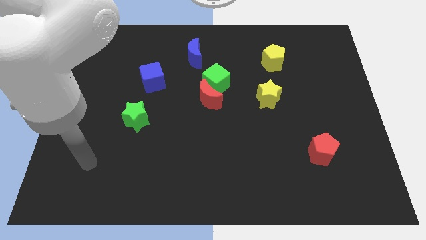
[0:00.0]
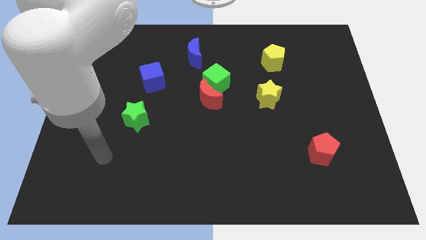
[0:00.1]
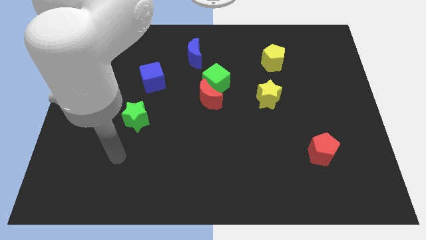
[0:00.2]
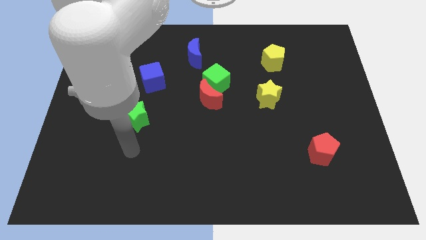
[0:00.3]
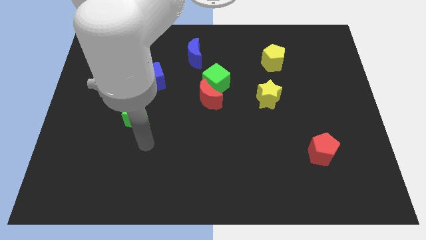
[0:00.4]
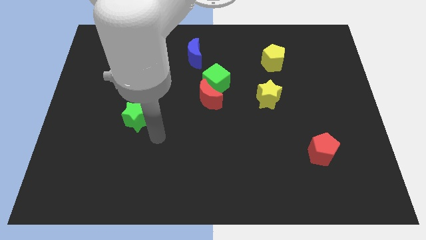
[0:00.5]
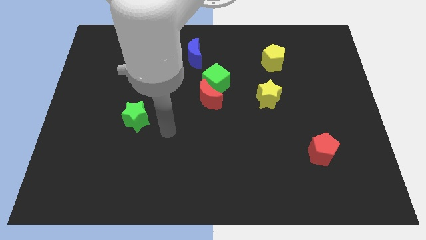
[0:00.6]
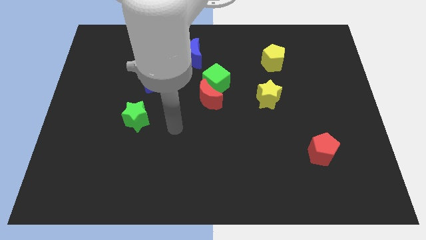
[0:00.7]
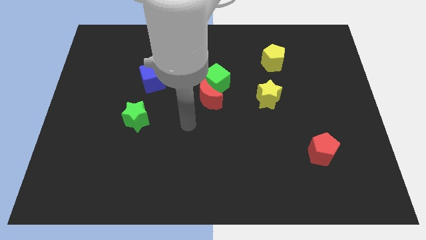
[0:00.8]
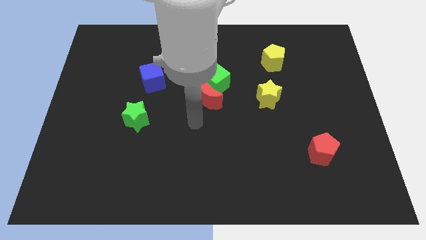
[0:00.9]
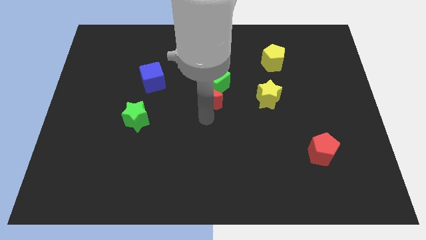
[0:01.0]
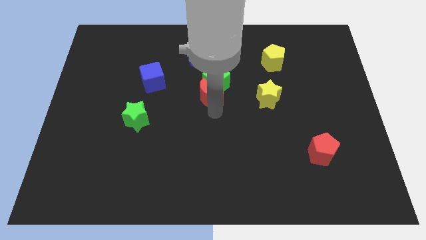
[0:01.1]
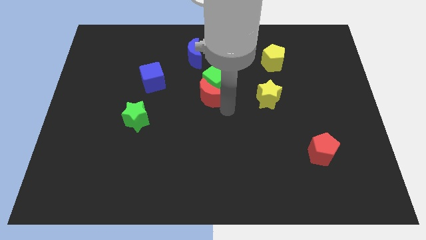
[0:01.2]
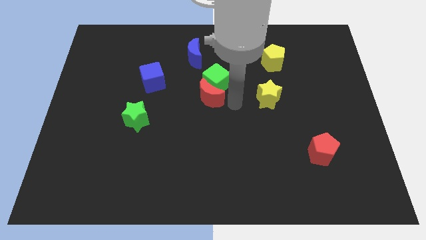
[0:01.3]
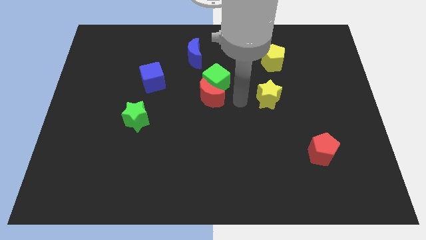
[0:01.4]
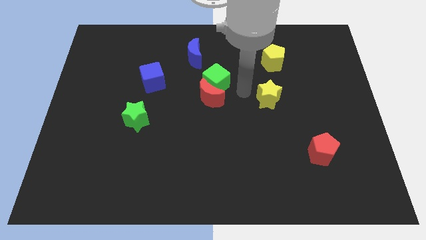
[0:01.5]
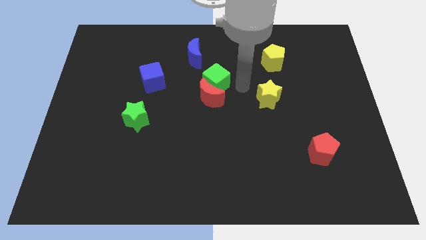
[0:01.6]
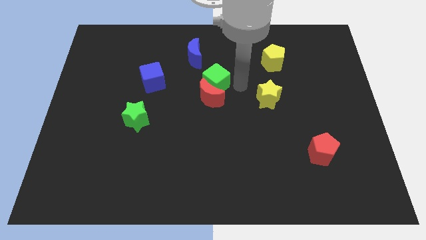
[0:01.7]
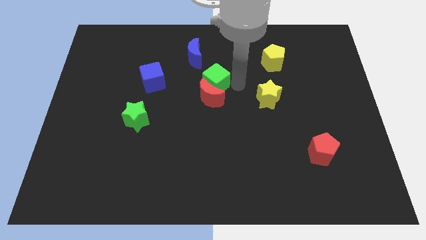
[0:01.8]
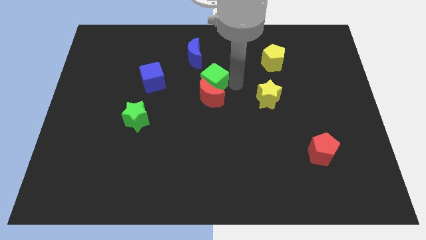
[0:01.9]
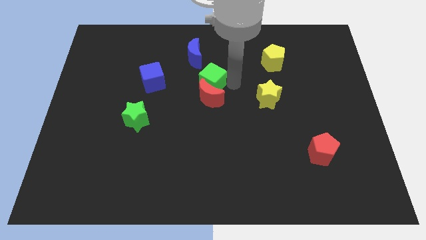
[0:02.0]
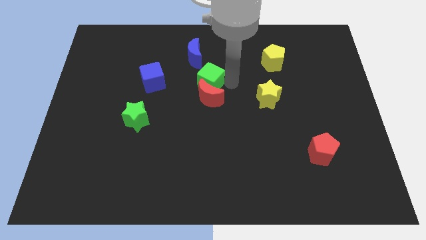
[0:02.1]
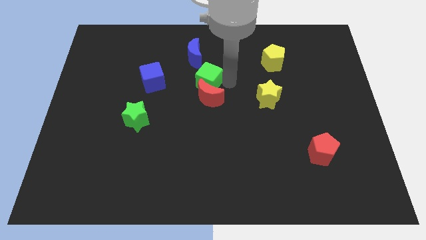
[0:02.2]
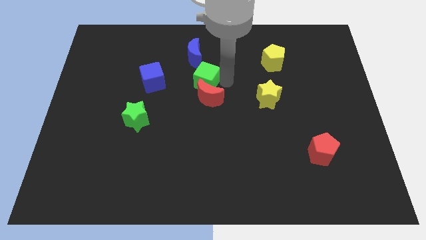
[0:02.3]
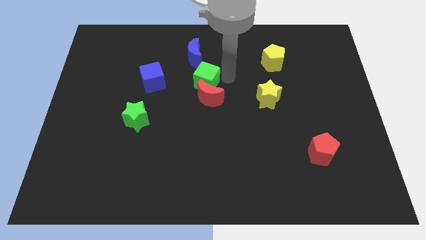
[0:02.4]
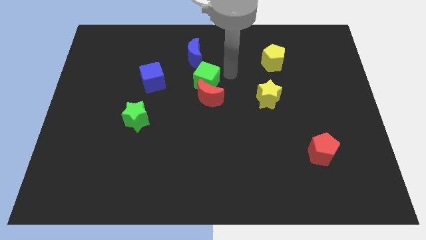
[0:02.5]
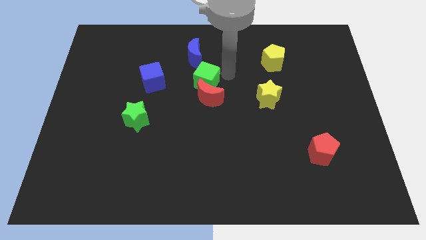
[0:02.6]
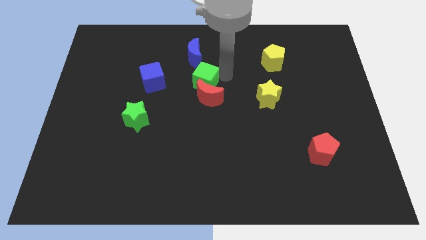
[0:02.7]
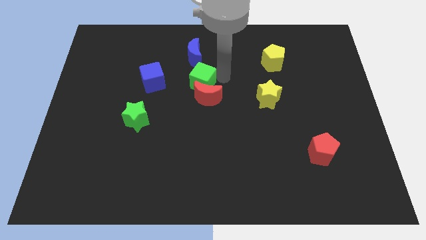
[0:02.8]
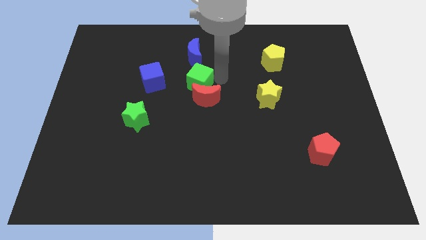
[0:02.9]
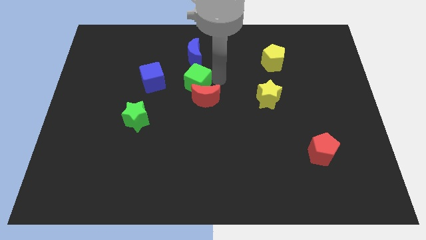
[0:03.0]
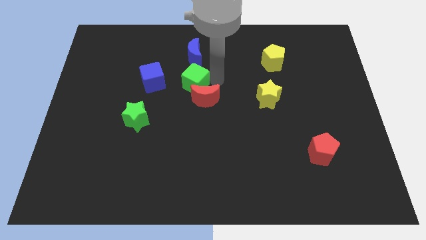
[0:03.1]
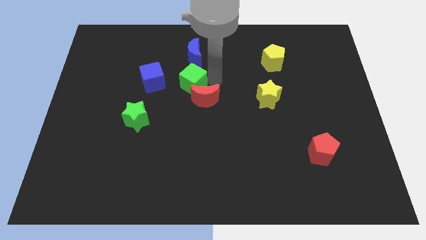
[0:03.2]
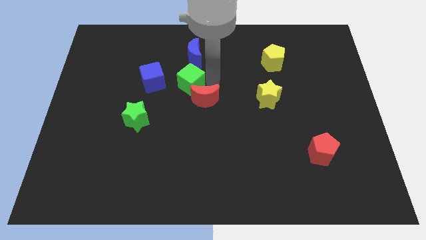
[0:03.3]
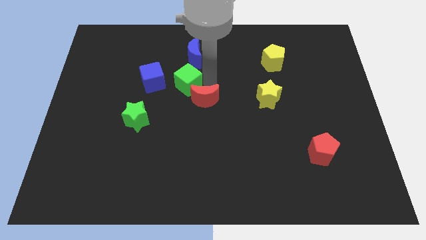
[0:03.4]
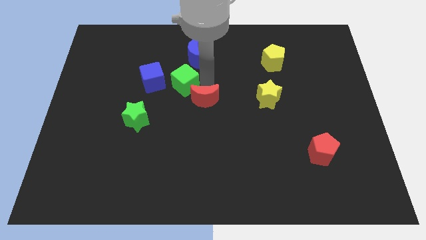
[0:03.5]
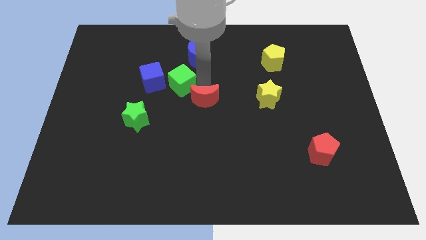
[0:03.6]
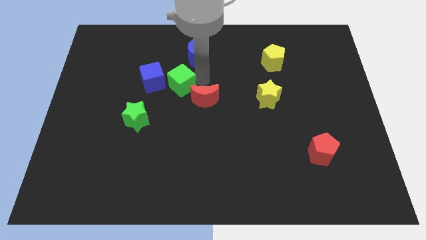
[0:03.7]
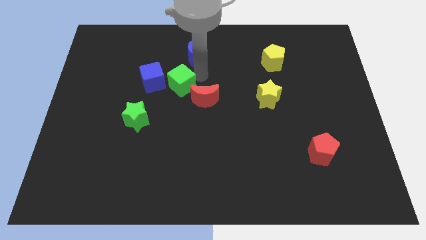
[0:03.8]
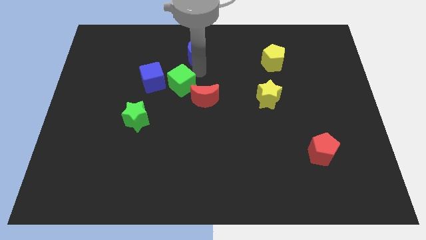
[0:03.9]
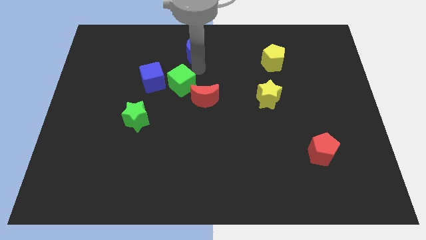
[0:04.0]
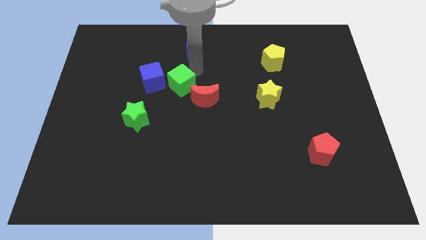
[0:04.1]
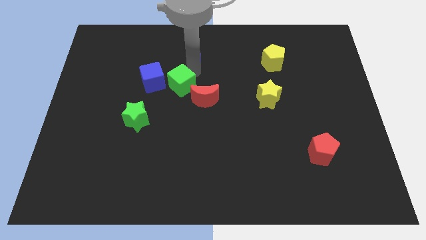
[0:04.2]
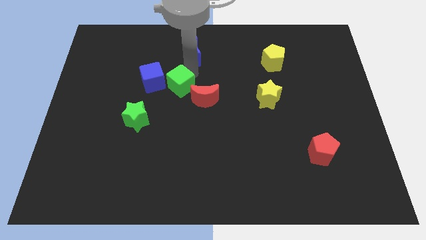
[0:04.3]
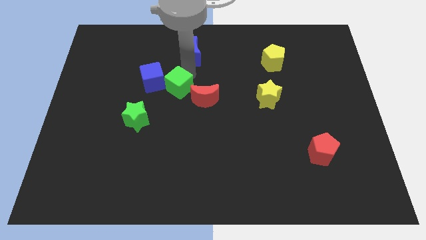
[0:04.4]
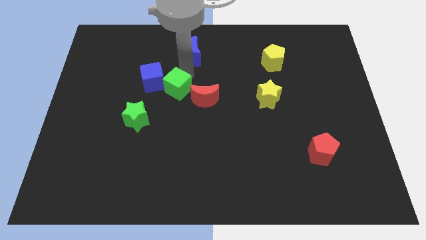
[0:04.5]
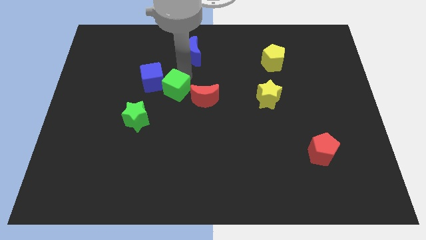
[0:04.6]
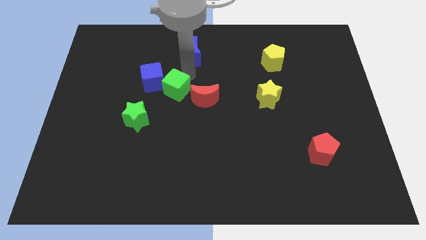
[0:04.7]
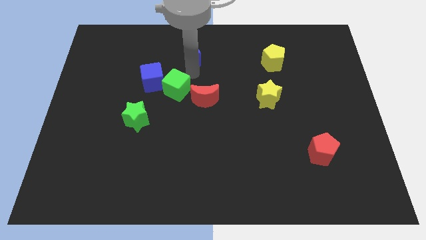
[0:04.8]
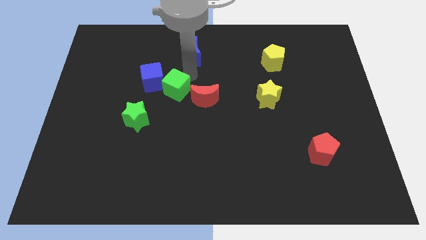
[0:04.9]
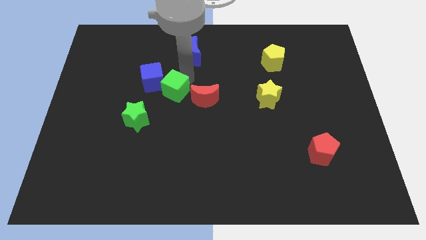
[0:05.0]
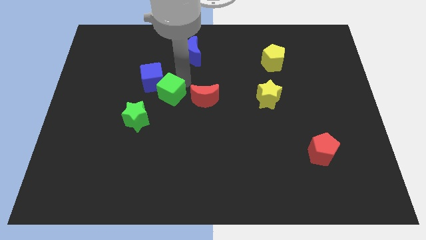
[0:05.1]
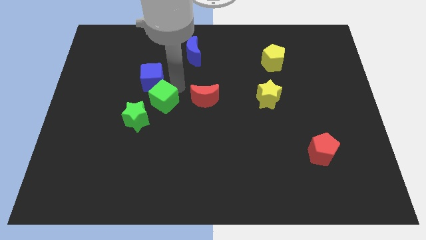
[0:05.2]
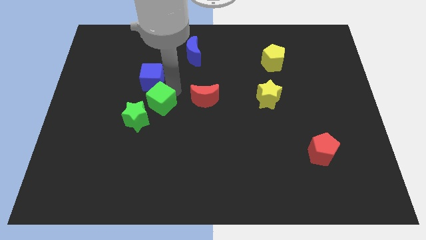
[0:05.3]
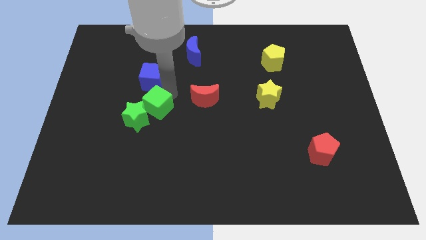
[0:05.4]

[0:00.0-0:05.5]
put the green cube towards the green star

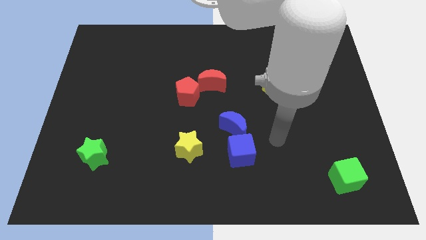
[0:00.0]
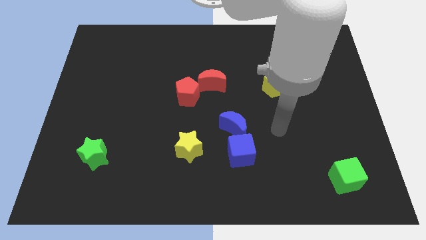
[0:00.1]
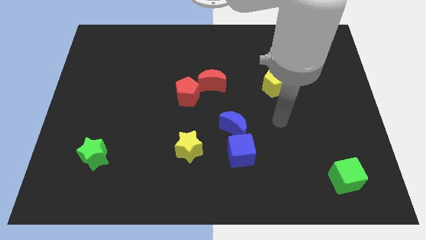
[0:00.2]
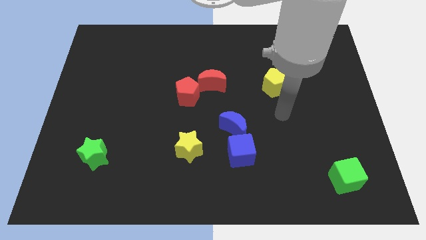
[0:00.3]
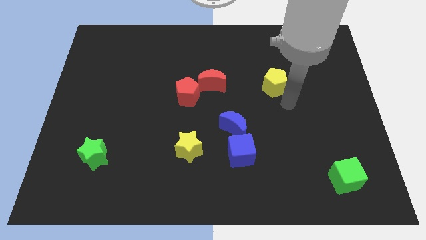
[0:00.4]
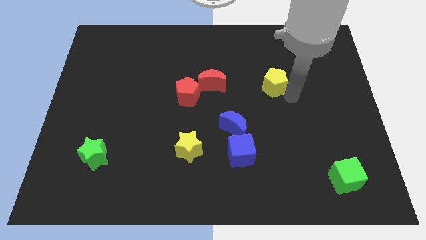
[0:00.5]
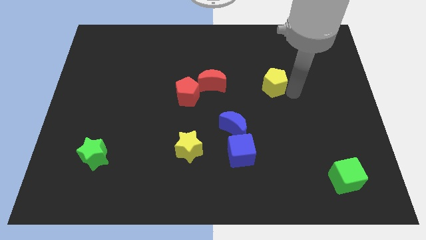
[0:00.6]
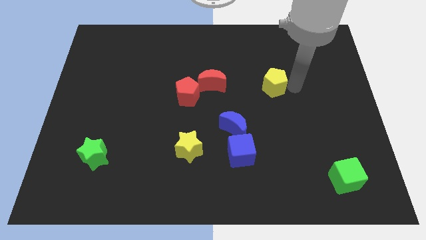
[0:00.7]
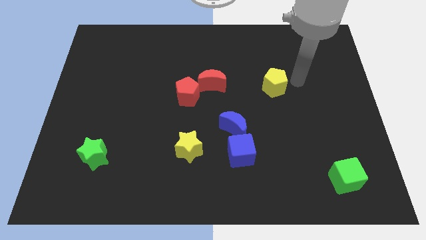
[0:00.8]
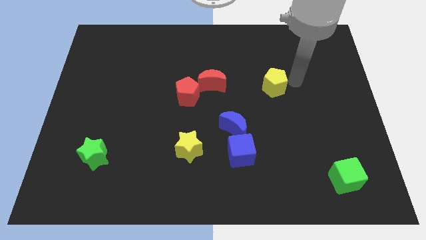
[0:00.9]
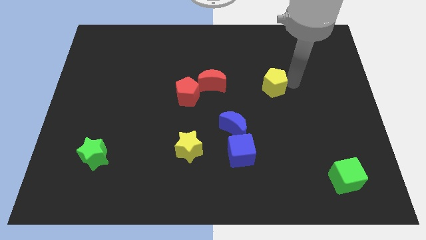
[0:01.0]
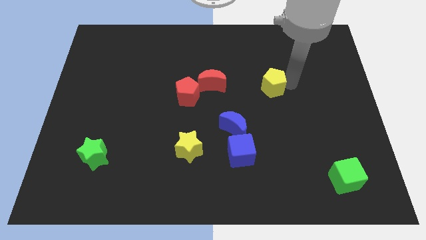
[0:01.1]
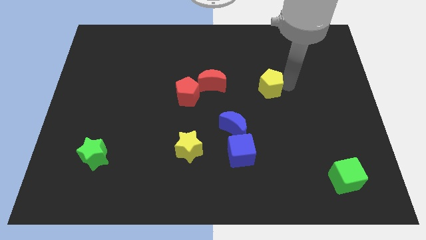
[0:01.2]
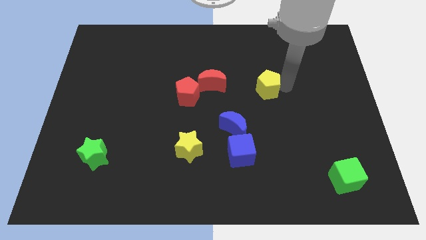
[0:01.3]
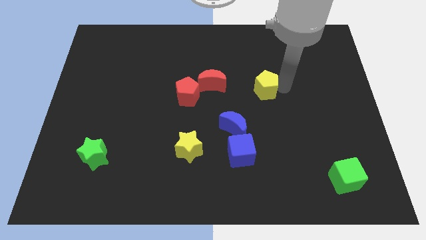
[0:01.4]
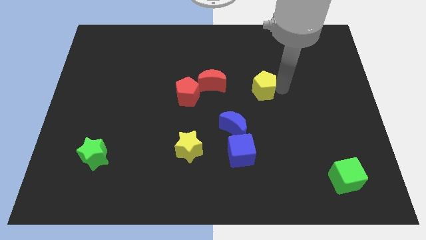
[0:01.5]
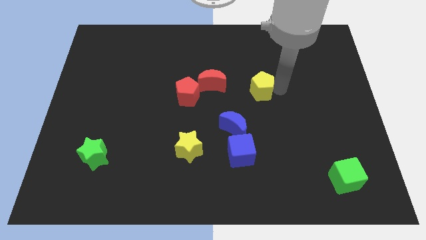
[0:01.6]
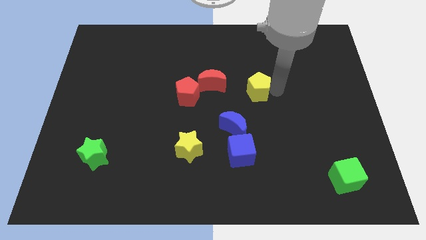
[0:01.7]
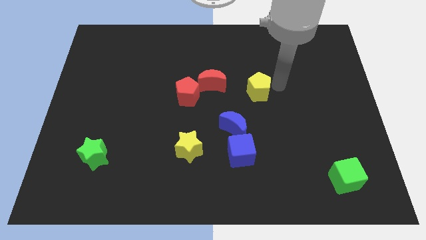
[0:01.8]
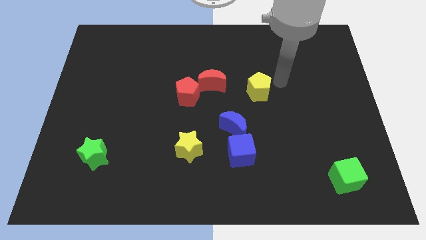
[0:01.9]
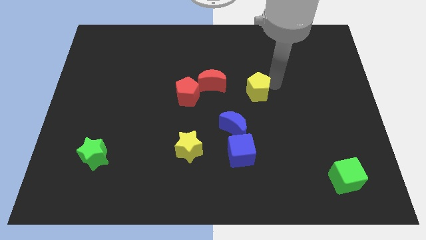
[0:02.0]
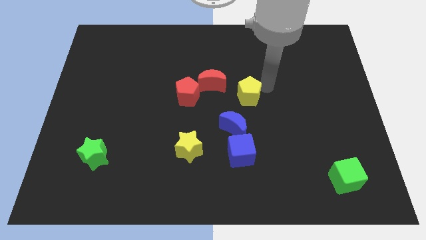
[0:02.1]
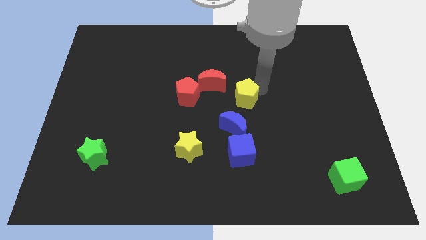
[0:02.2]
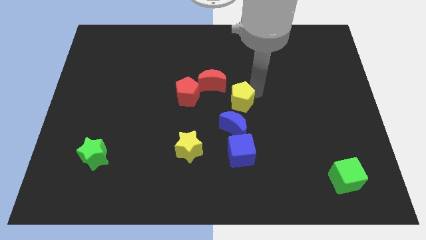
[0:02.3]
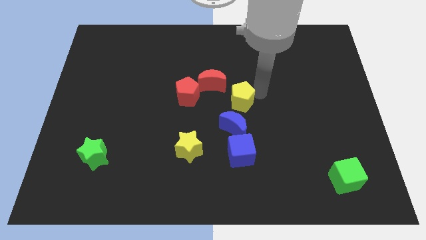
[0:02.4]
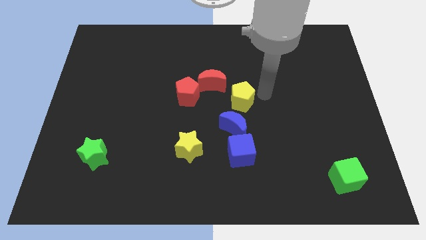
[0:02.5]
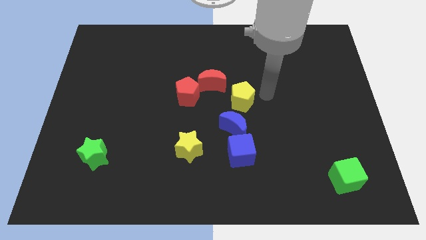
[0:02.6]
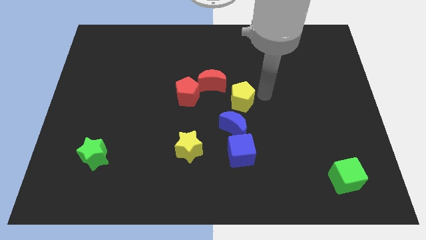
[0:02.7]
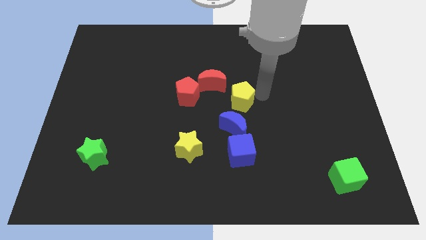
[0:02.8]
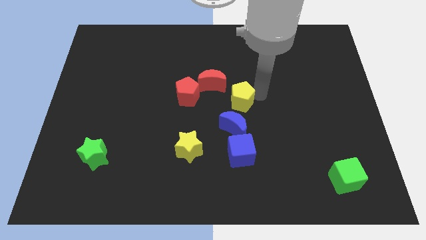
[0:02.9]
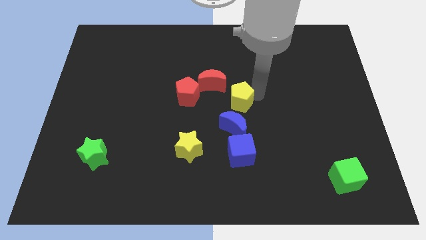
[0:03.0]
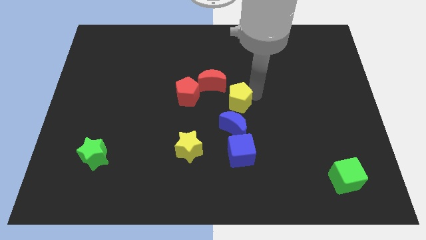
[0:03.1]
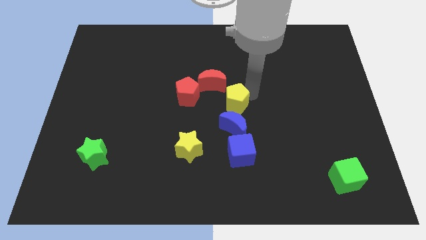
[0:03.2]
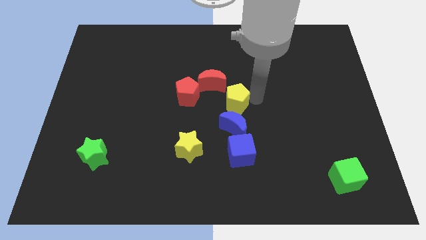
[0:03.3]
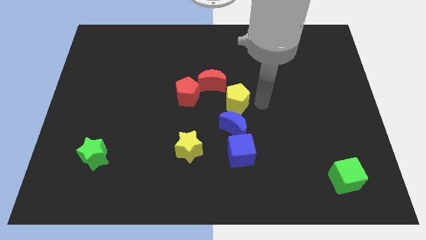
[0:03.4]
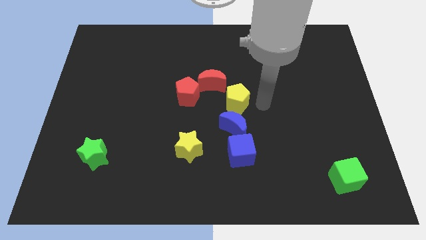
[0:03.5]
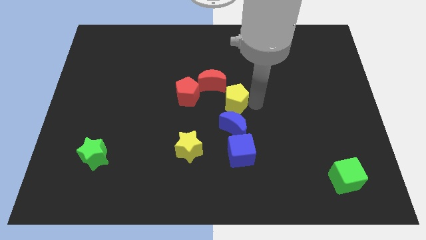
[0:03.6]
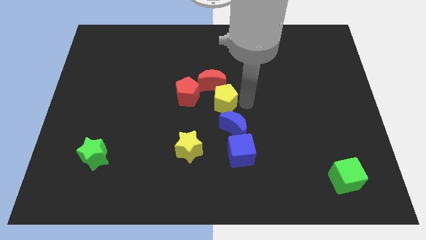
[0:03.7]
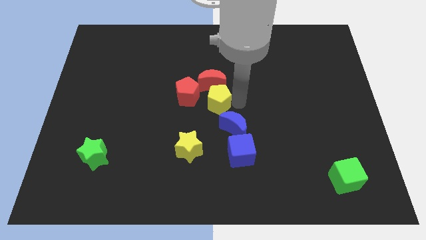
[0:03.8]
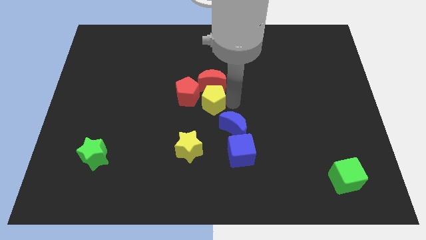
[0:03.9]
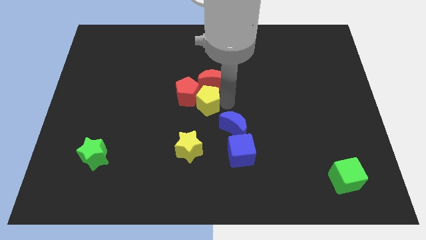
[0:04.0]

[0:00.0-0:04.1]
move the yellow pentagon close to the red pentagon
